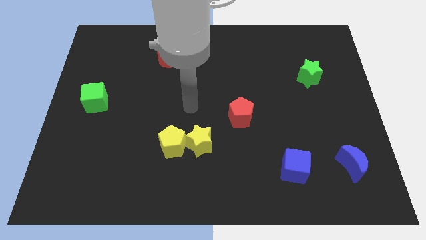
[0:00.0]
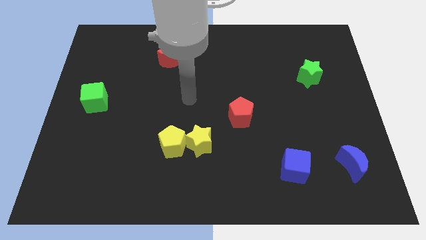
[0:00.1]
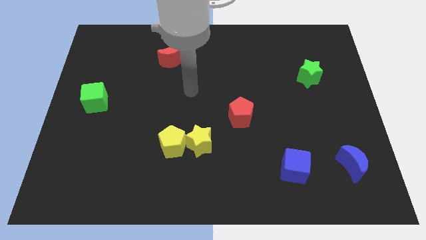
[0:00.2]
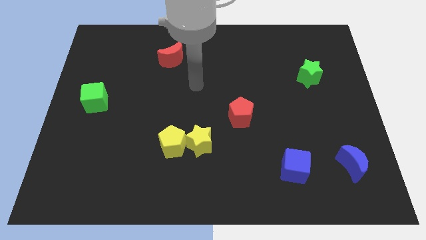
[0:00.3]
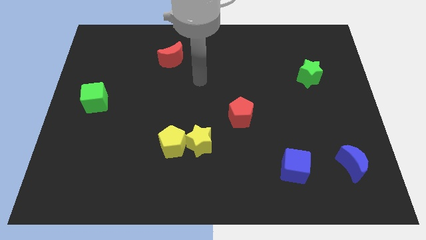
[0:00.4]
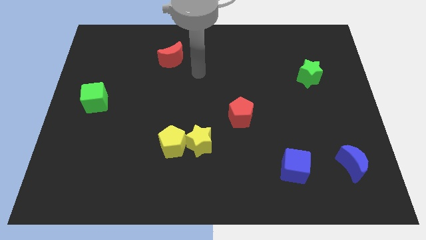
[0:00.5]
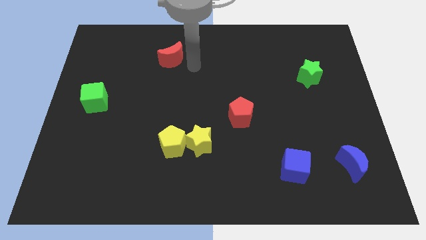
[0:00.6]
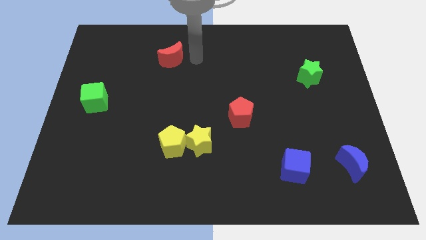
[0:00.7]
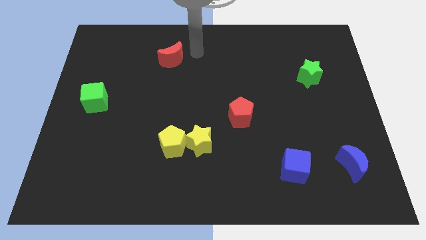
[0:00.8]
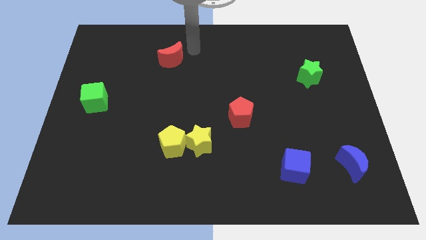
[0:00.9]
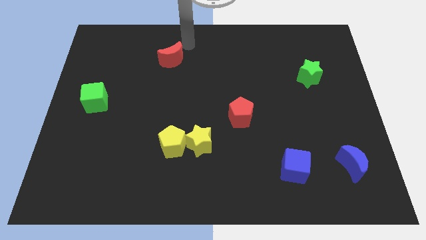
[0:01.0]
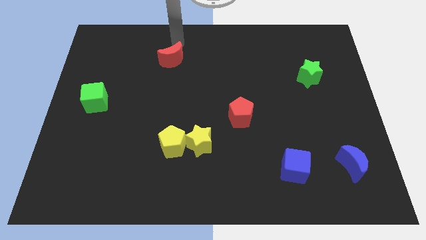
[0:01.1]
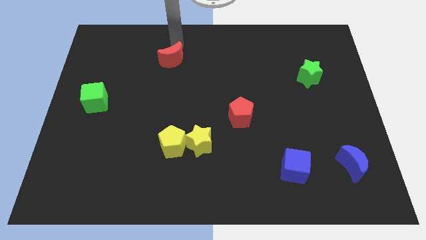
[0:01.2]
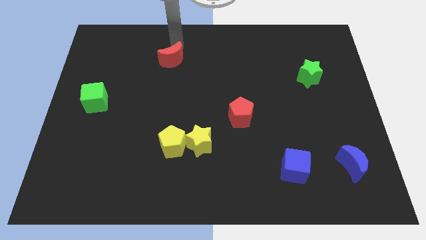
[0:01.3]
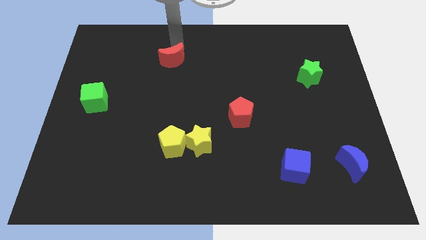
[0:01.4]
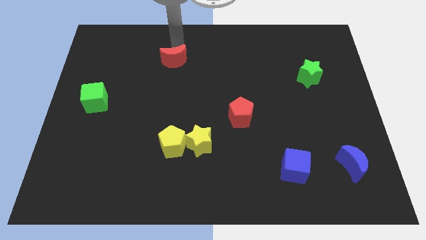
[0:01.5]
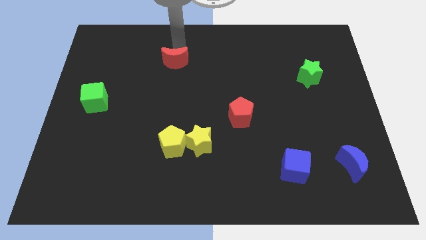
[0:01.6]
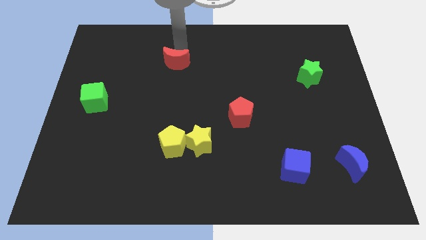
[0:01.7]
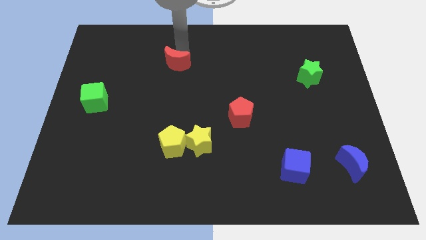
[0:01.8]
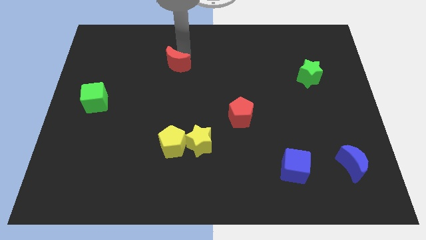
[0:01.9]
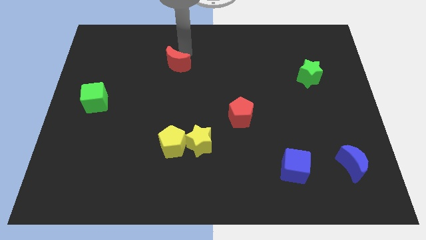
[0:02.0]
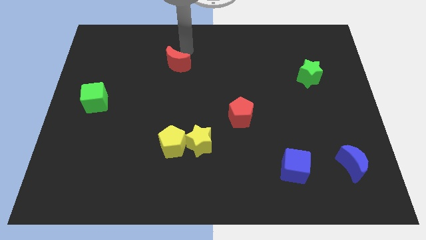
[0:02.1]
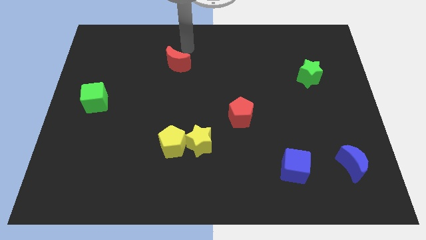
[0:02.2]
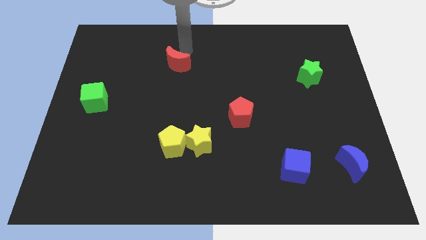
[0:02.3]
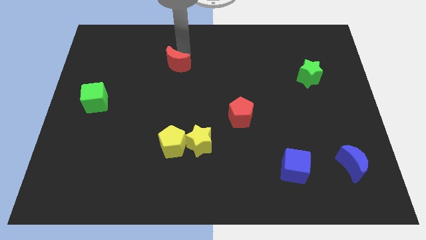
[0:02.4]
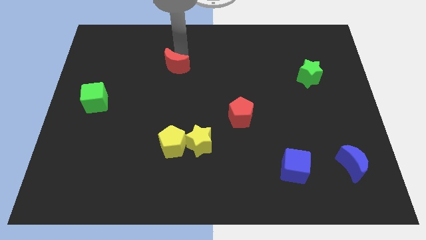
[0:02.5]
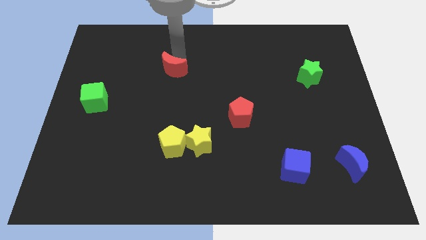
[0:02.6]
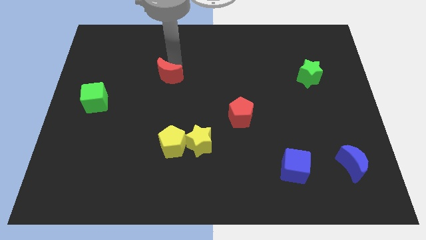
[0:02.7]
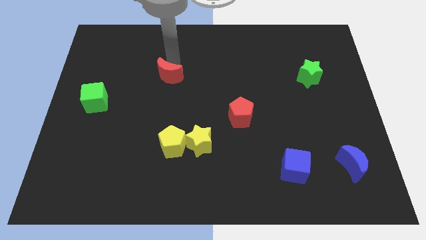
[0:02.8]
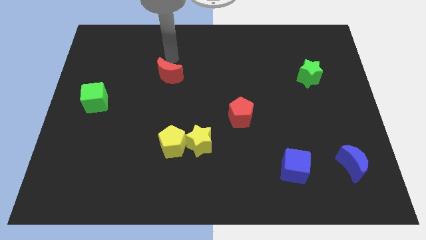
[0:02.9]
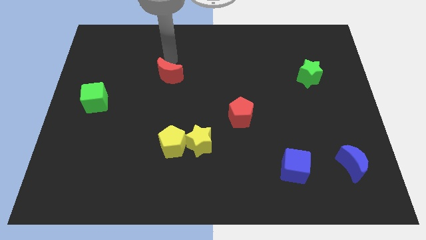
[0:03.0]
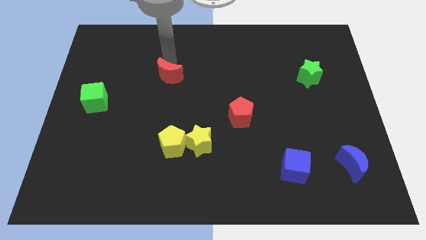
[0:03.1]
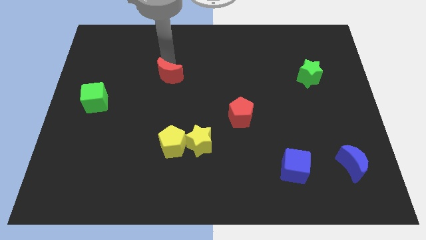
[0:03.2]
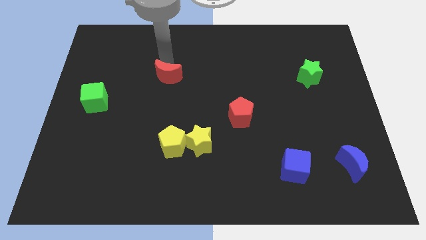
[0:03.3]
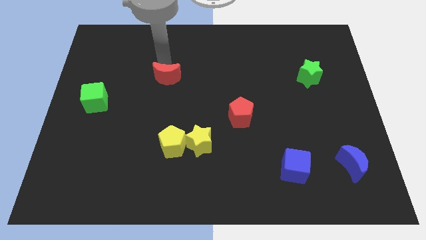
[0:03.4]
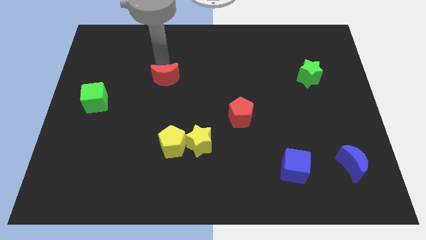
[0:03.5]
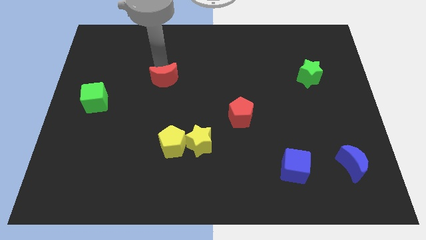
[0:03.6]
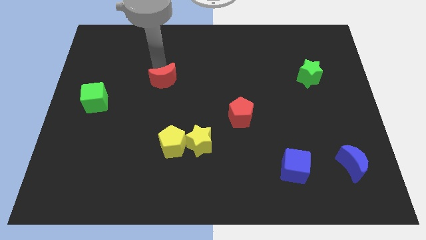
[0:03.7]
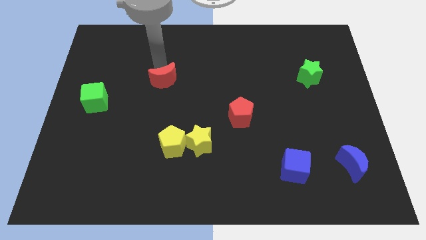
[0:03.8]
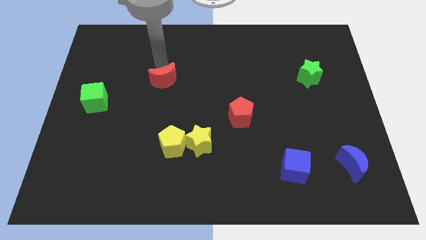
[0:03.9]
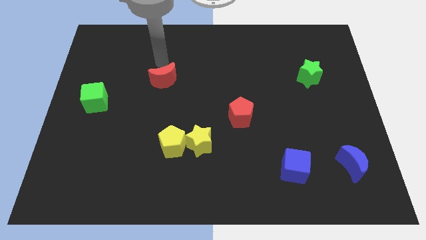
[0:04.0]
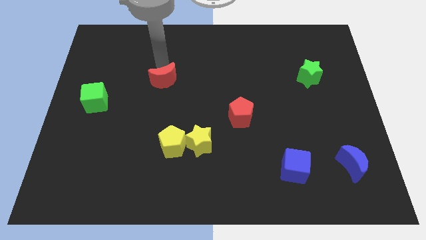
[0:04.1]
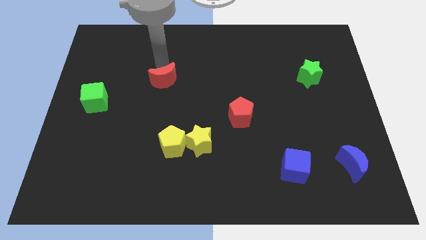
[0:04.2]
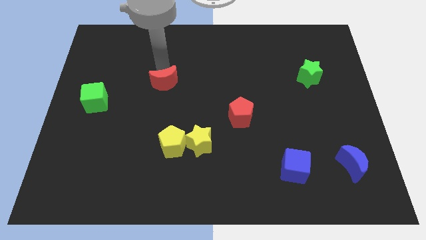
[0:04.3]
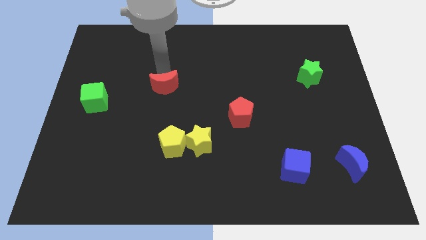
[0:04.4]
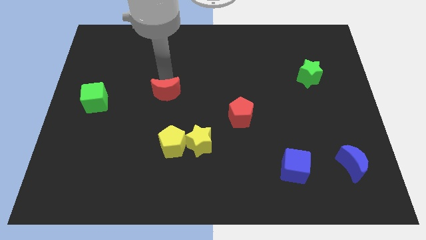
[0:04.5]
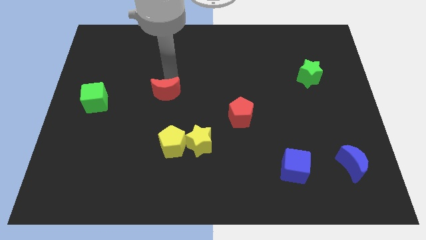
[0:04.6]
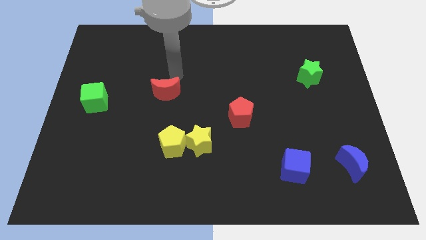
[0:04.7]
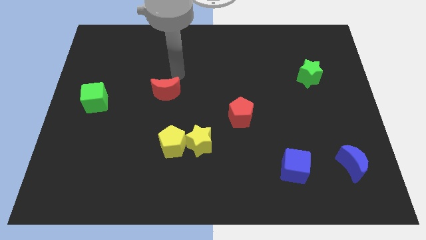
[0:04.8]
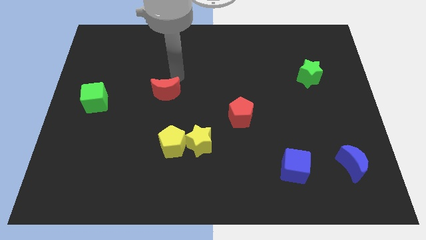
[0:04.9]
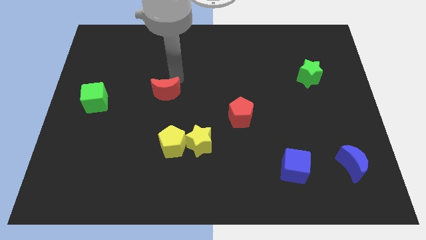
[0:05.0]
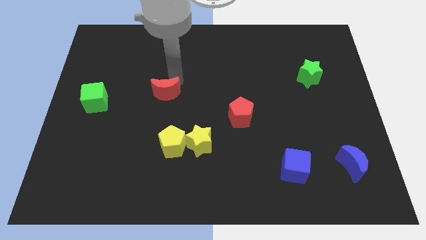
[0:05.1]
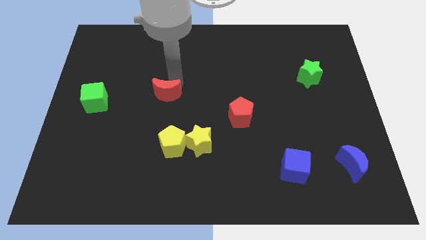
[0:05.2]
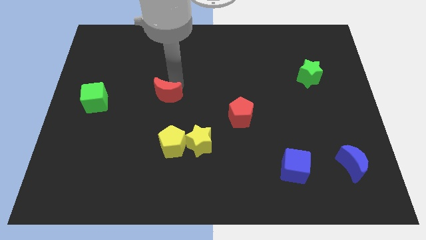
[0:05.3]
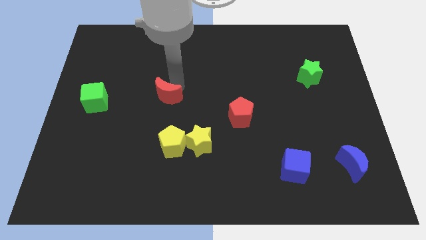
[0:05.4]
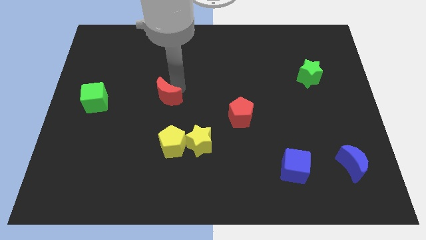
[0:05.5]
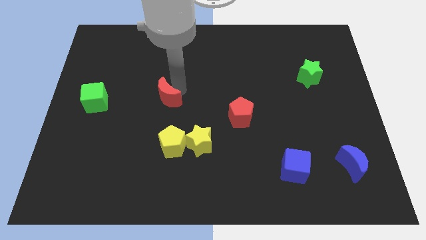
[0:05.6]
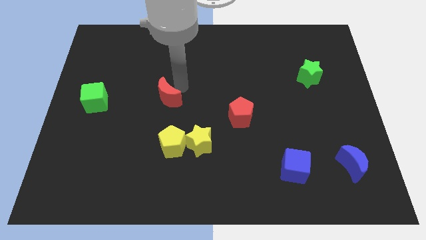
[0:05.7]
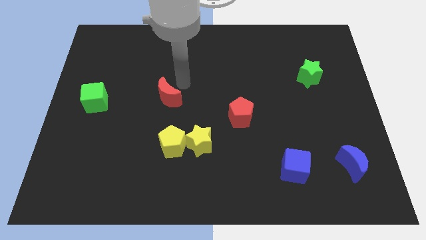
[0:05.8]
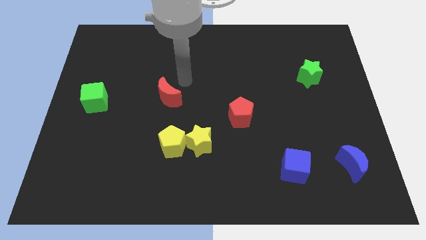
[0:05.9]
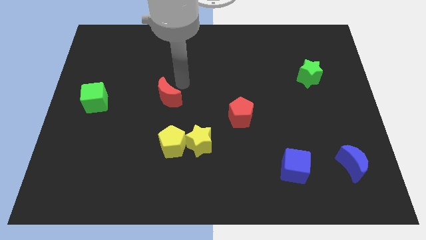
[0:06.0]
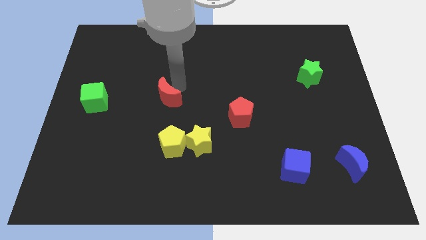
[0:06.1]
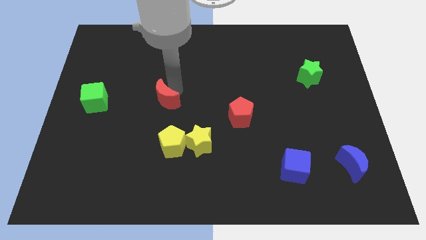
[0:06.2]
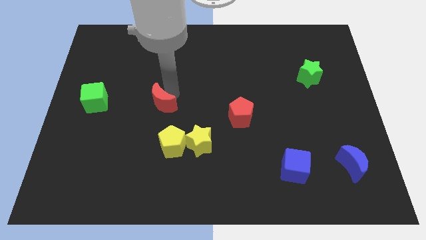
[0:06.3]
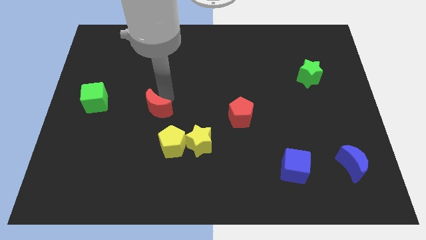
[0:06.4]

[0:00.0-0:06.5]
put the red moon diagonally up and to the left of the yellow pentagon

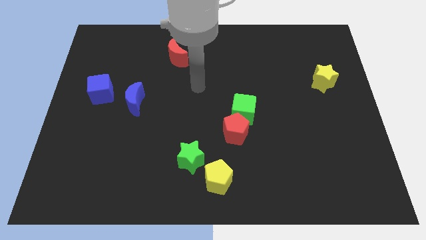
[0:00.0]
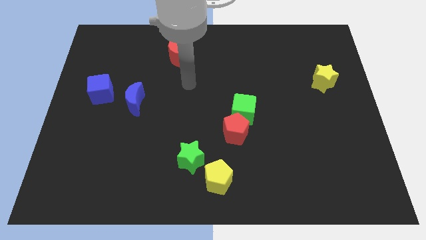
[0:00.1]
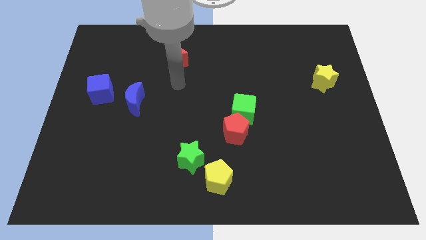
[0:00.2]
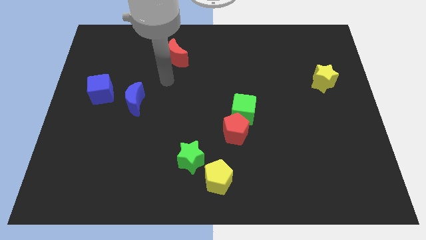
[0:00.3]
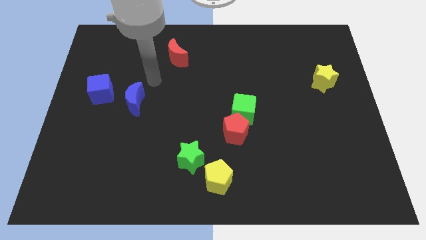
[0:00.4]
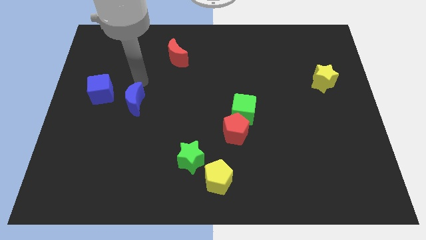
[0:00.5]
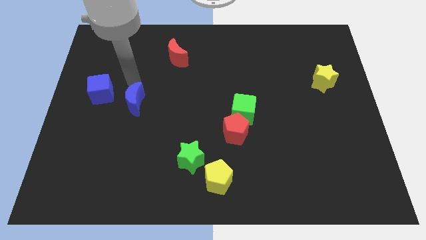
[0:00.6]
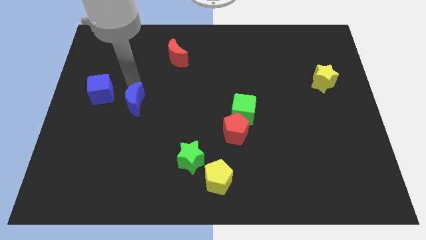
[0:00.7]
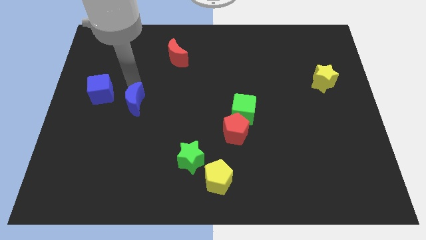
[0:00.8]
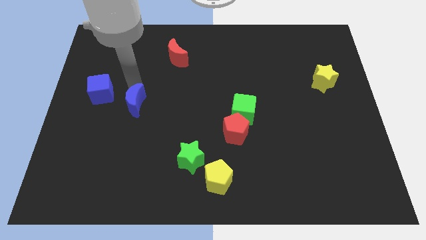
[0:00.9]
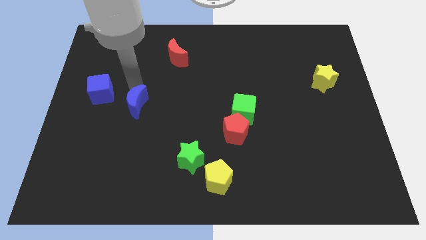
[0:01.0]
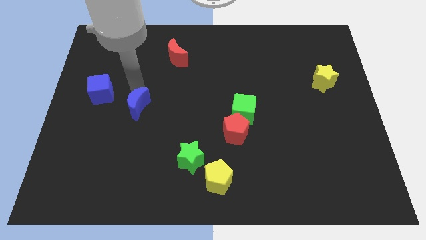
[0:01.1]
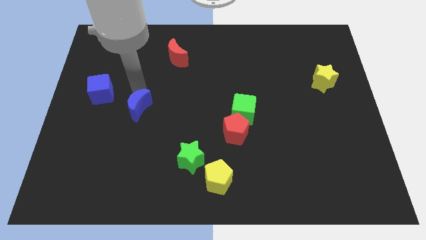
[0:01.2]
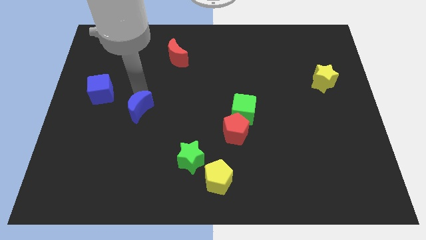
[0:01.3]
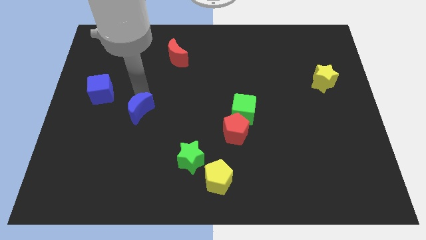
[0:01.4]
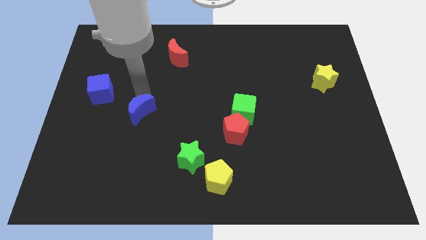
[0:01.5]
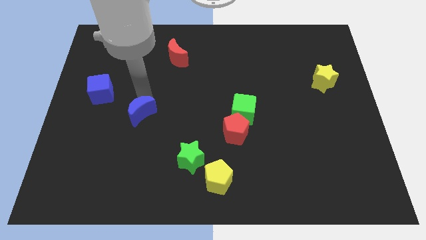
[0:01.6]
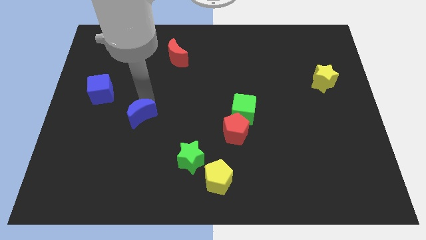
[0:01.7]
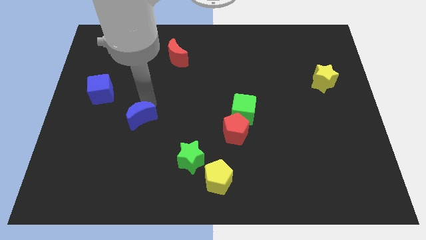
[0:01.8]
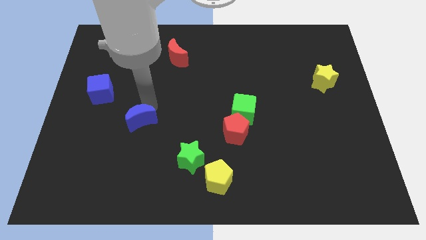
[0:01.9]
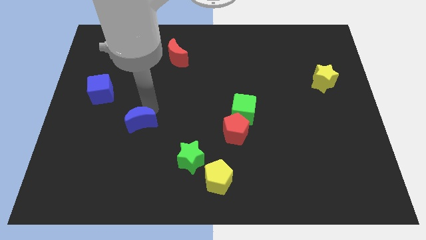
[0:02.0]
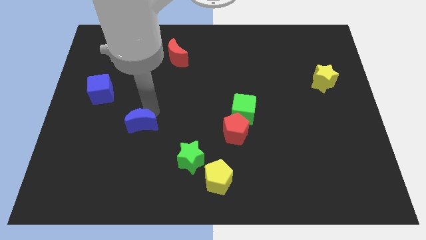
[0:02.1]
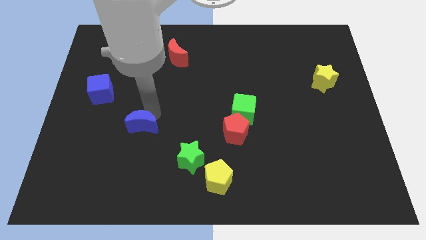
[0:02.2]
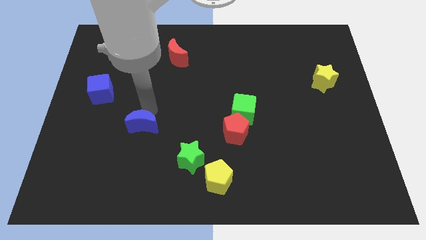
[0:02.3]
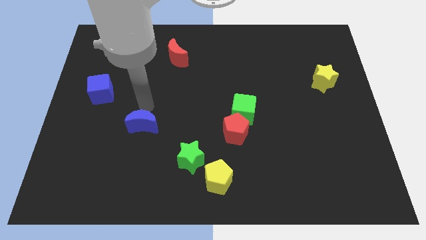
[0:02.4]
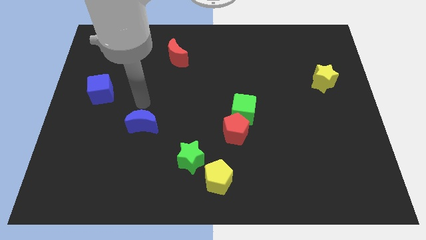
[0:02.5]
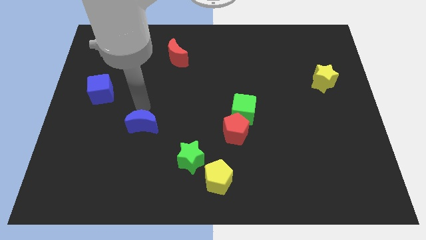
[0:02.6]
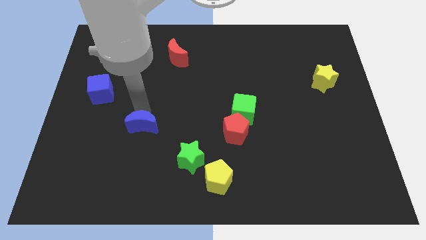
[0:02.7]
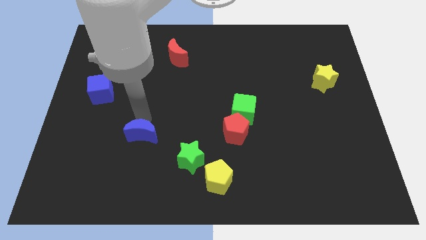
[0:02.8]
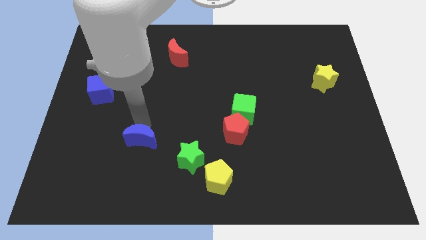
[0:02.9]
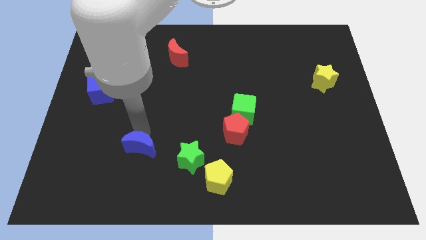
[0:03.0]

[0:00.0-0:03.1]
push the blue moon left of the green star
